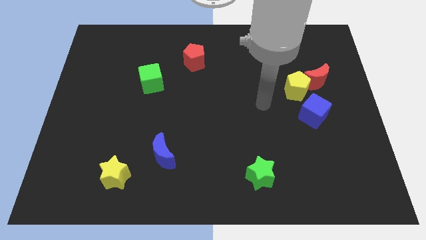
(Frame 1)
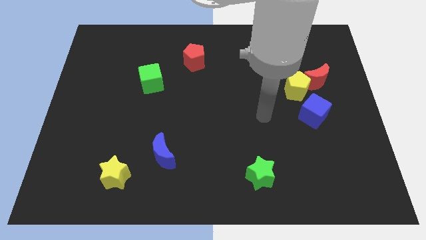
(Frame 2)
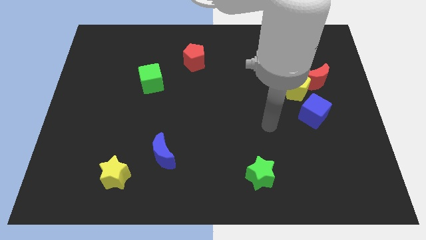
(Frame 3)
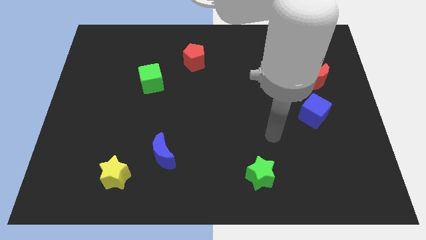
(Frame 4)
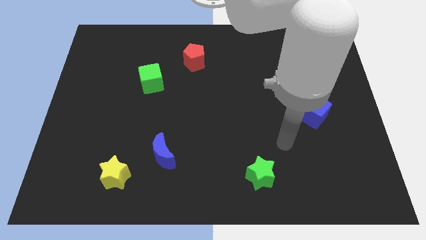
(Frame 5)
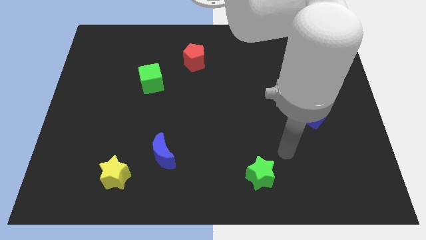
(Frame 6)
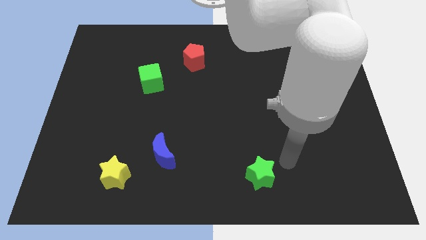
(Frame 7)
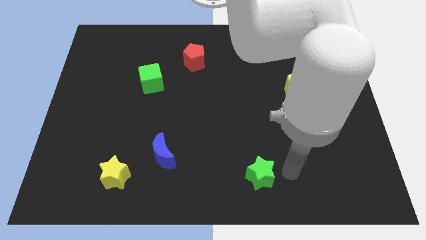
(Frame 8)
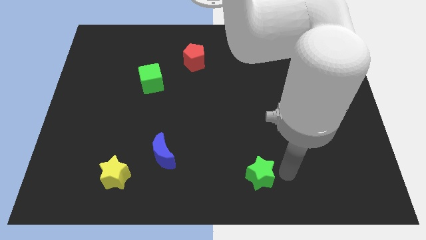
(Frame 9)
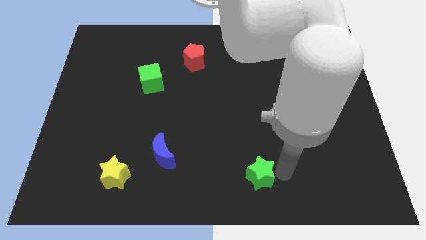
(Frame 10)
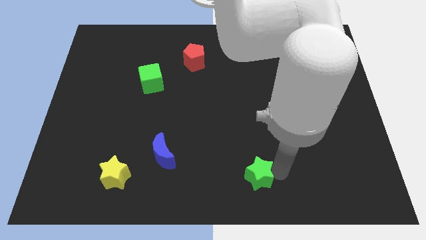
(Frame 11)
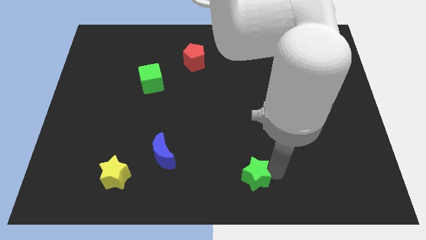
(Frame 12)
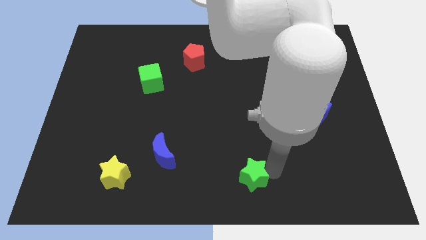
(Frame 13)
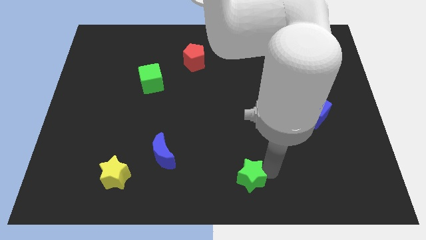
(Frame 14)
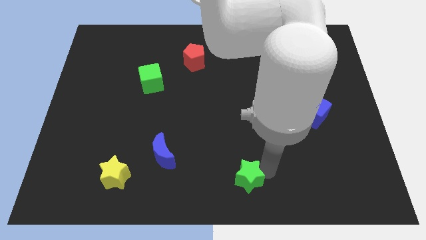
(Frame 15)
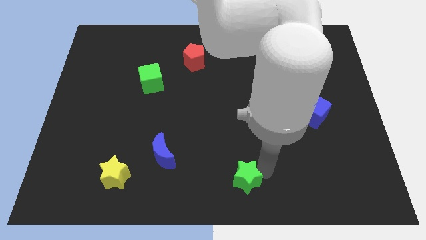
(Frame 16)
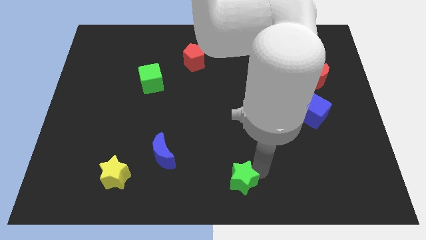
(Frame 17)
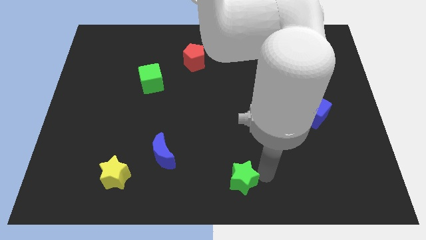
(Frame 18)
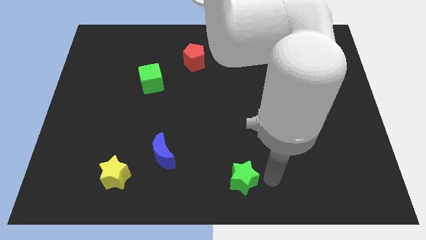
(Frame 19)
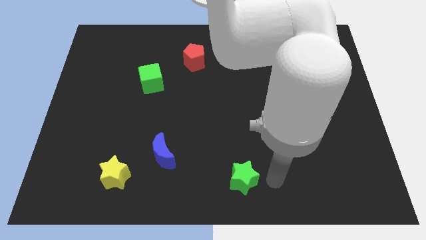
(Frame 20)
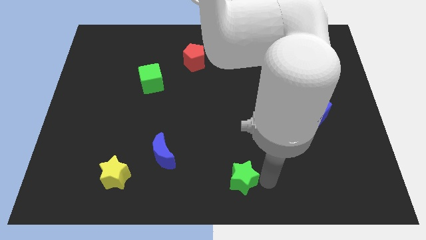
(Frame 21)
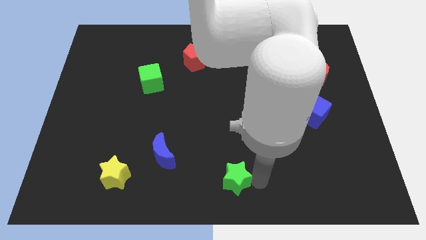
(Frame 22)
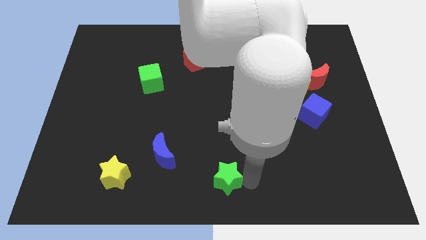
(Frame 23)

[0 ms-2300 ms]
slide the green star to the left a little bit

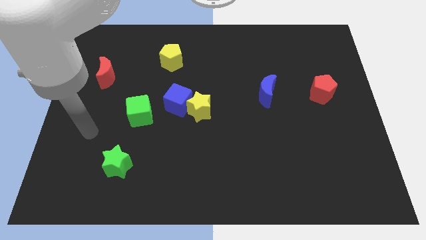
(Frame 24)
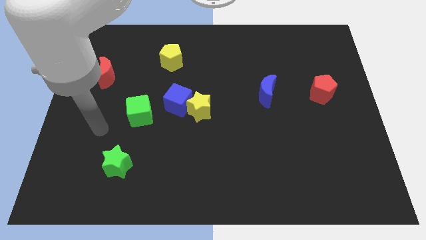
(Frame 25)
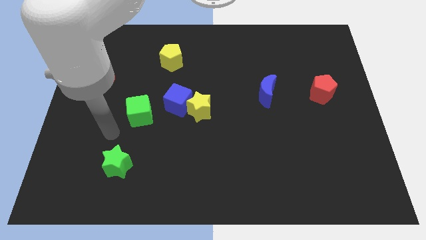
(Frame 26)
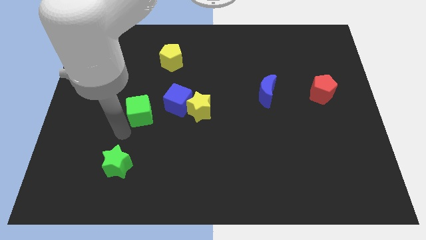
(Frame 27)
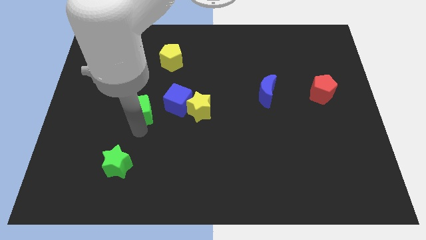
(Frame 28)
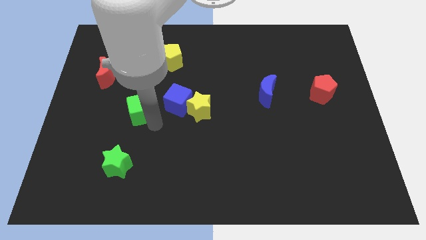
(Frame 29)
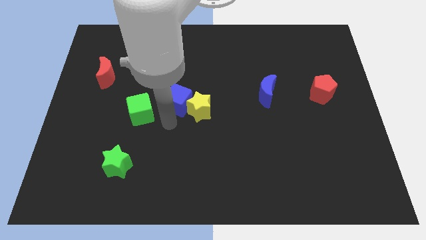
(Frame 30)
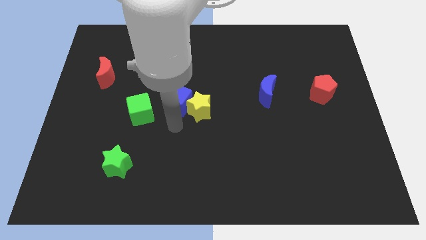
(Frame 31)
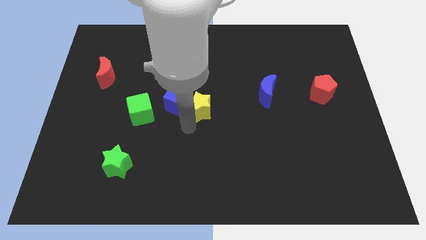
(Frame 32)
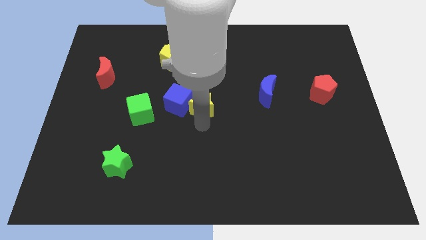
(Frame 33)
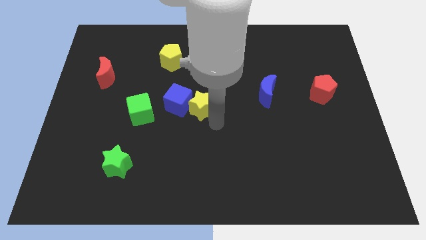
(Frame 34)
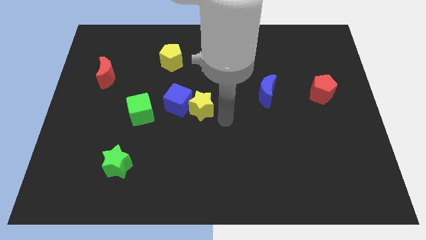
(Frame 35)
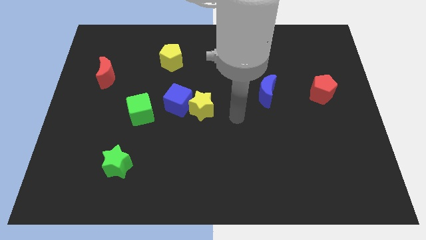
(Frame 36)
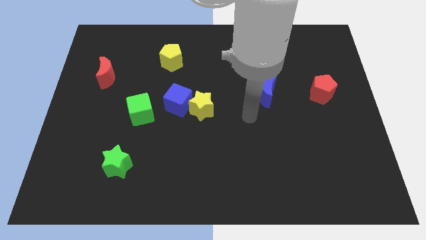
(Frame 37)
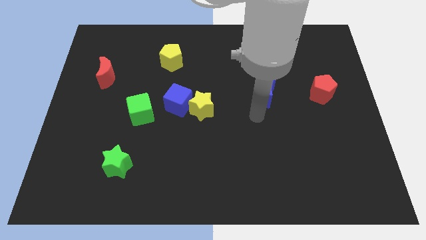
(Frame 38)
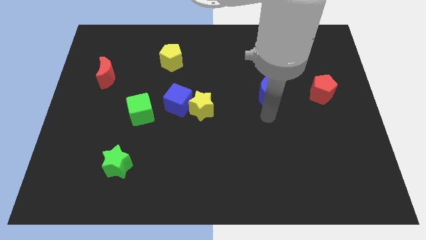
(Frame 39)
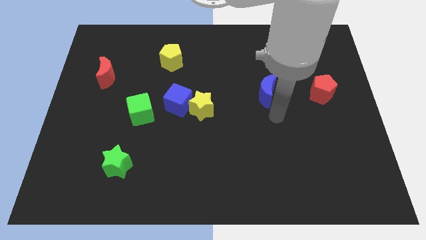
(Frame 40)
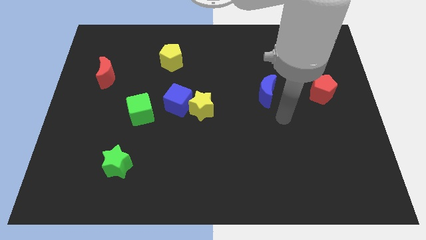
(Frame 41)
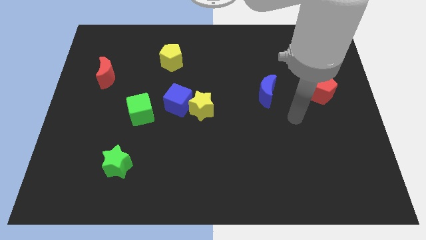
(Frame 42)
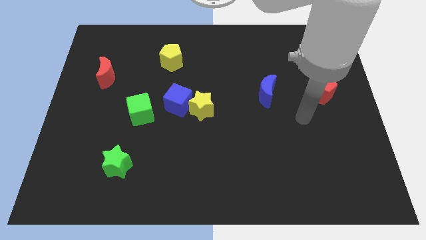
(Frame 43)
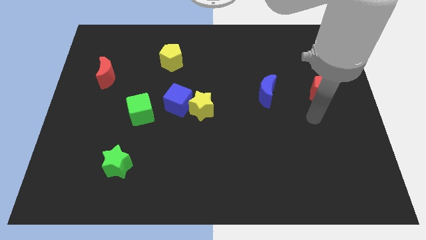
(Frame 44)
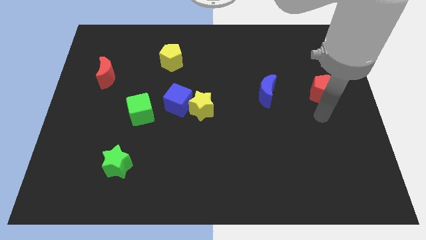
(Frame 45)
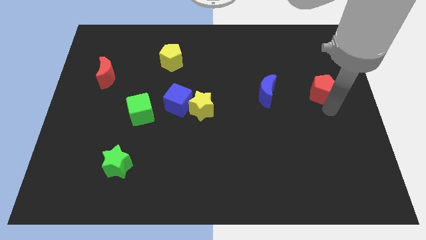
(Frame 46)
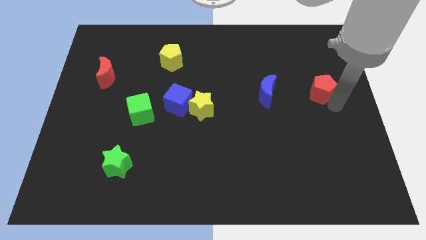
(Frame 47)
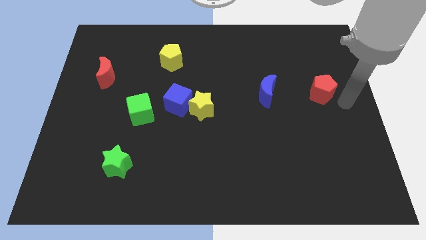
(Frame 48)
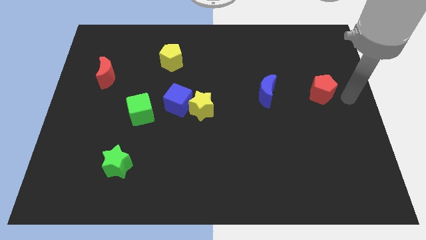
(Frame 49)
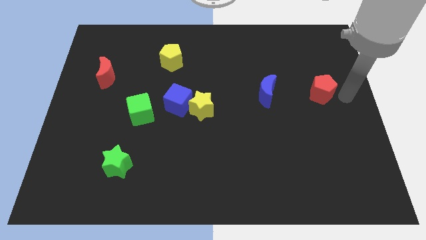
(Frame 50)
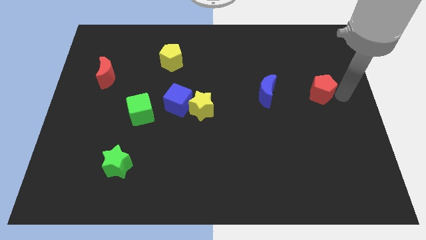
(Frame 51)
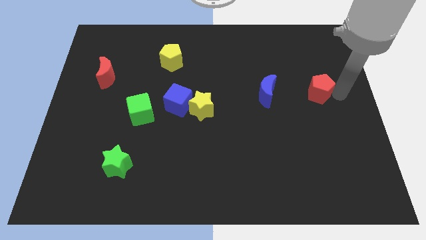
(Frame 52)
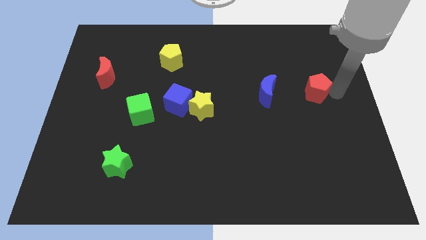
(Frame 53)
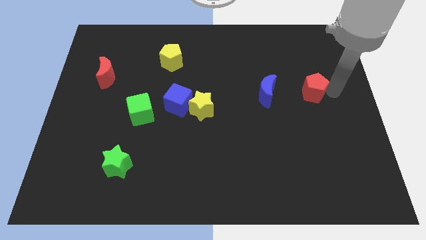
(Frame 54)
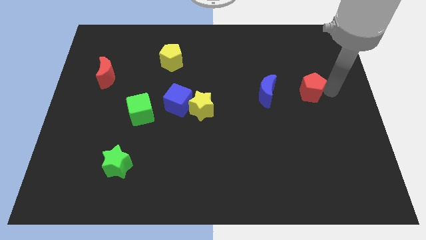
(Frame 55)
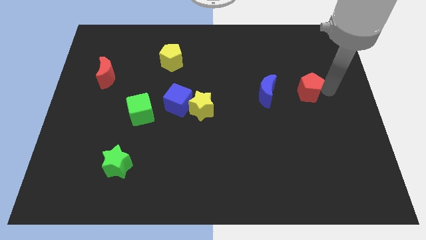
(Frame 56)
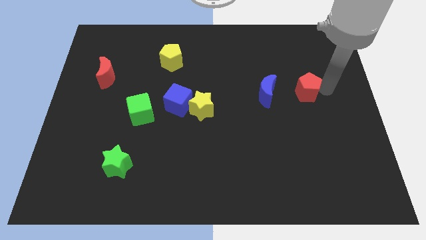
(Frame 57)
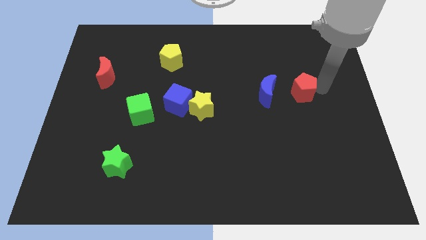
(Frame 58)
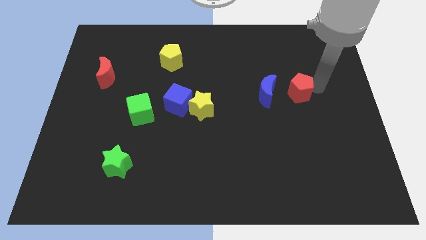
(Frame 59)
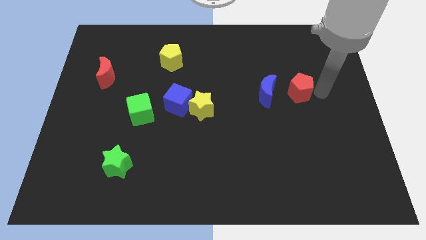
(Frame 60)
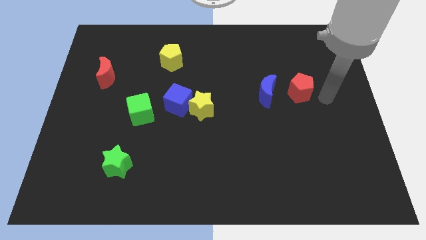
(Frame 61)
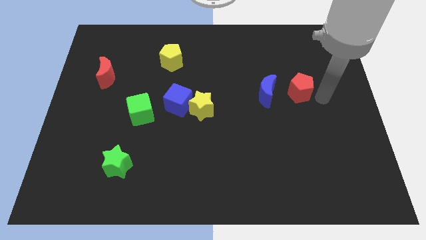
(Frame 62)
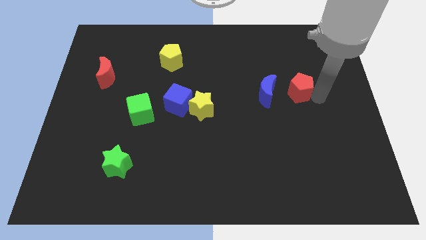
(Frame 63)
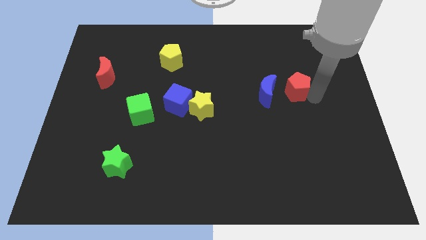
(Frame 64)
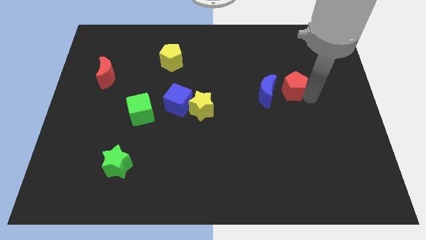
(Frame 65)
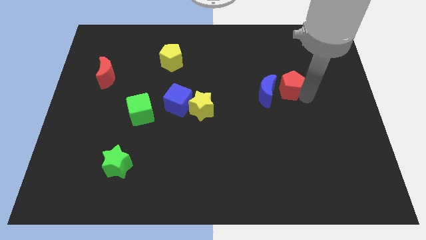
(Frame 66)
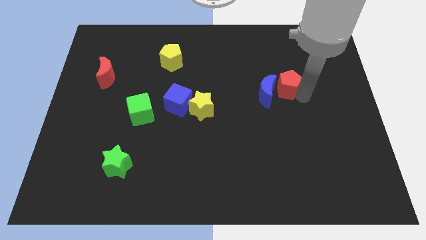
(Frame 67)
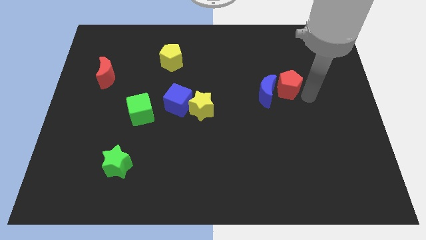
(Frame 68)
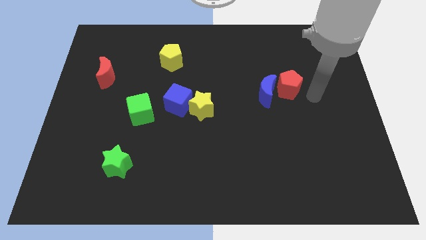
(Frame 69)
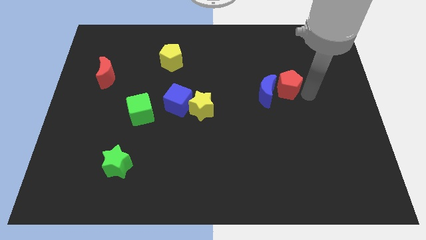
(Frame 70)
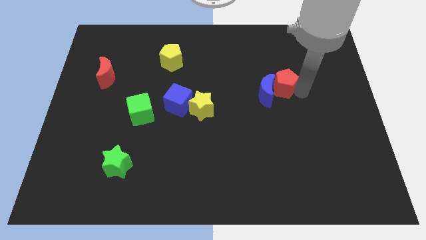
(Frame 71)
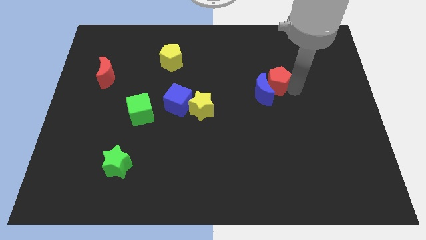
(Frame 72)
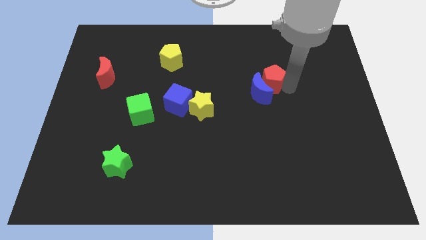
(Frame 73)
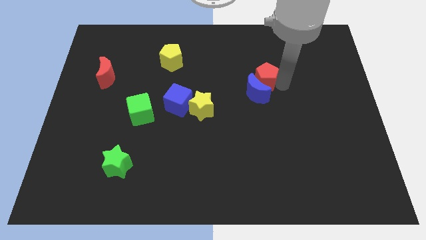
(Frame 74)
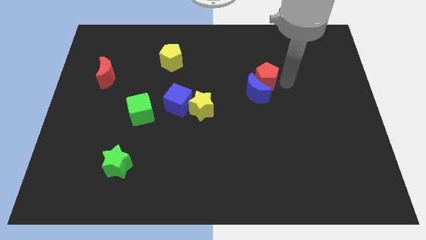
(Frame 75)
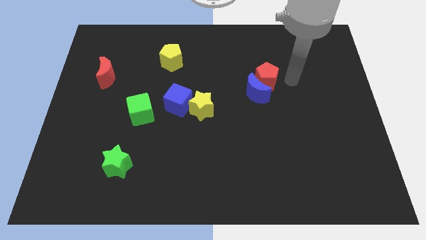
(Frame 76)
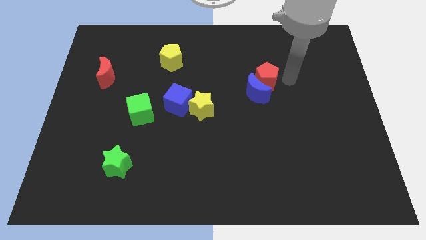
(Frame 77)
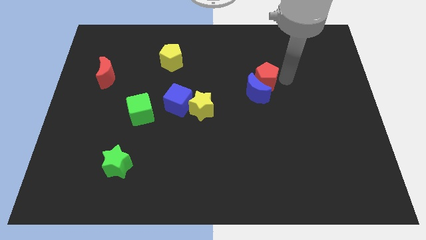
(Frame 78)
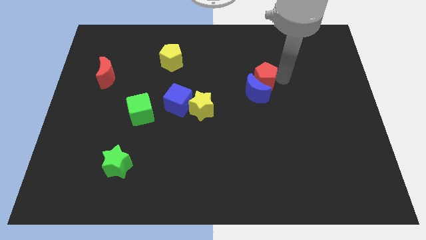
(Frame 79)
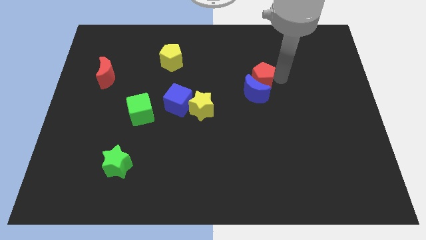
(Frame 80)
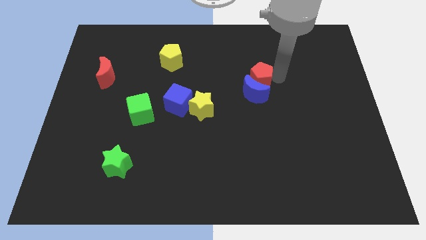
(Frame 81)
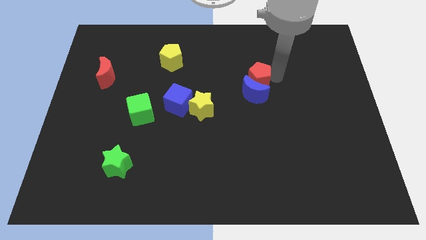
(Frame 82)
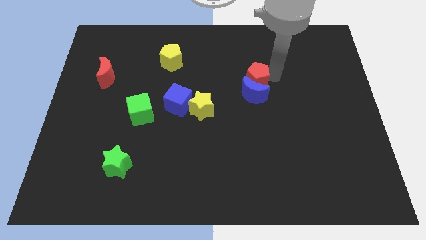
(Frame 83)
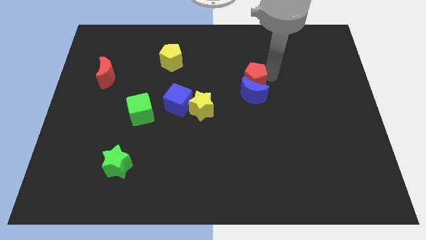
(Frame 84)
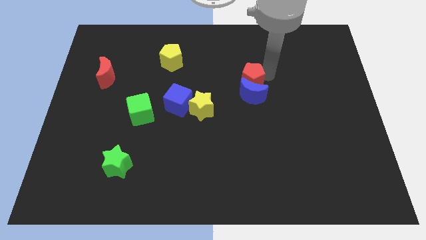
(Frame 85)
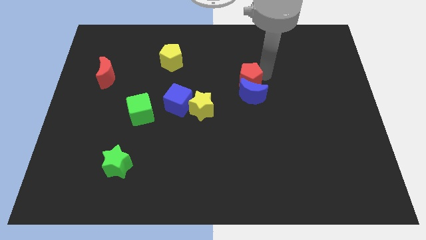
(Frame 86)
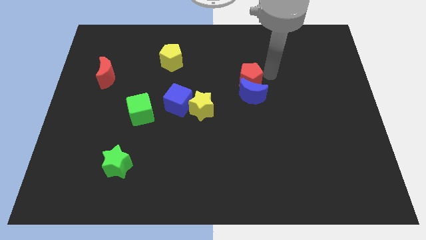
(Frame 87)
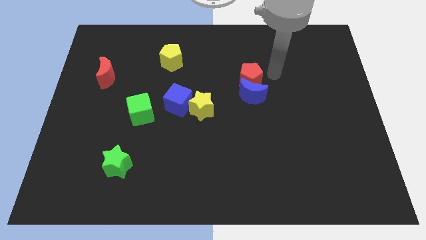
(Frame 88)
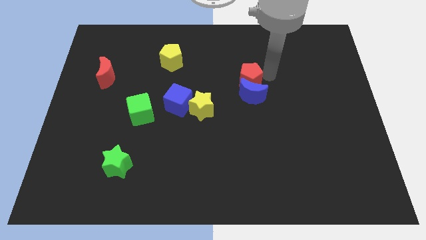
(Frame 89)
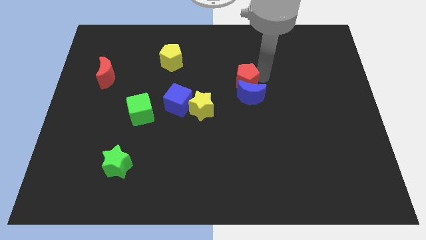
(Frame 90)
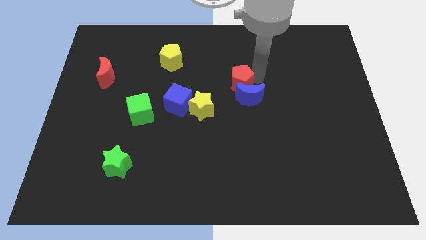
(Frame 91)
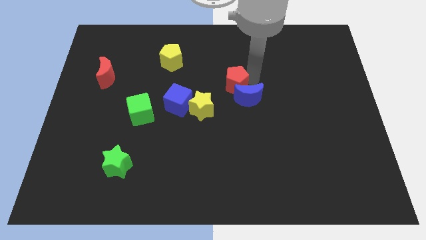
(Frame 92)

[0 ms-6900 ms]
push the red pentagon to the left
